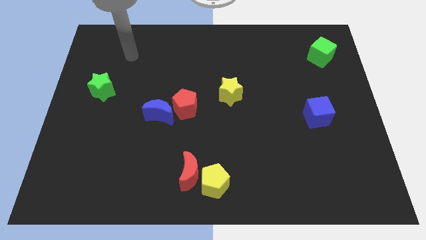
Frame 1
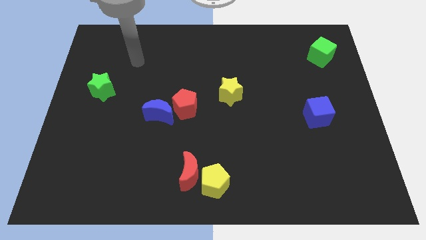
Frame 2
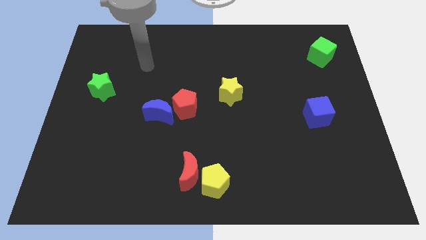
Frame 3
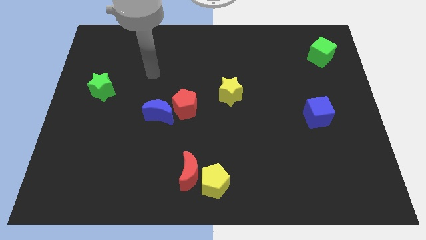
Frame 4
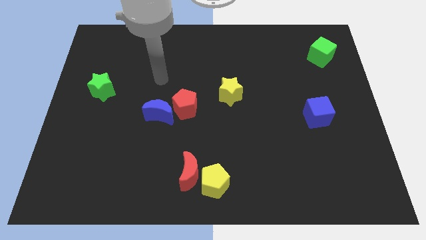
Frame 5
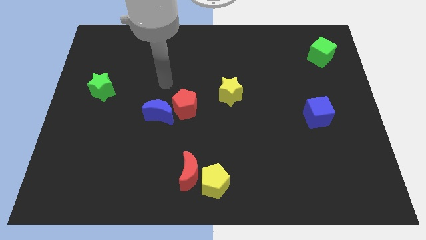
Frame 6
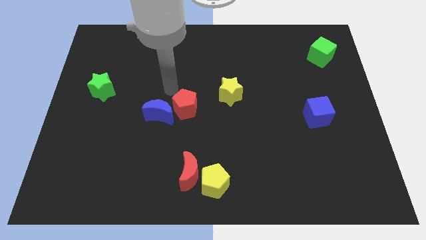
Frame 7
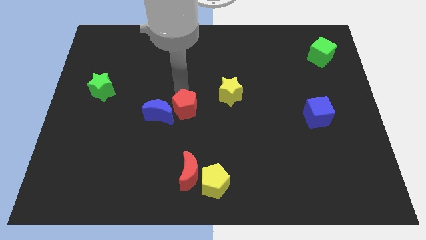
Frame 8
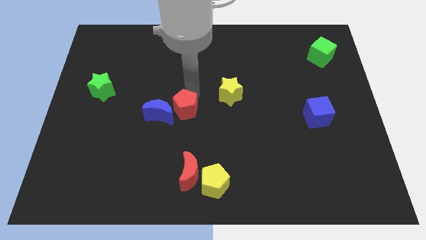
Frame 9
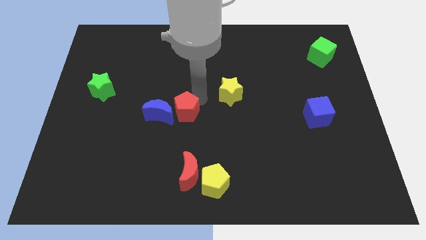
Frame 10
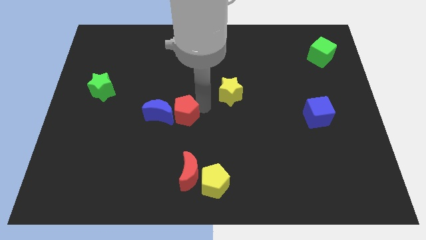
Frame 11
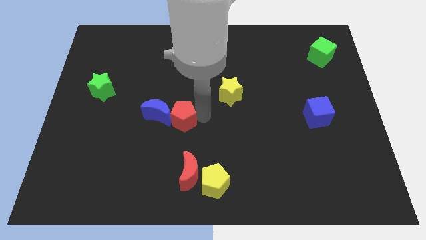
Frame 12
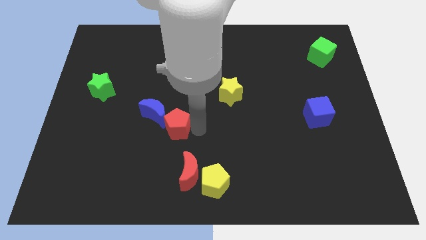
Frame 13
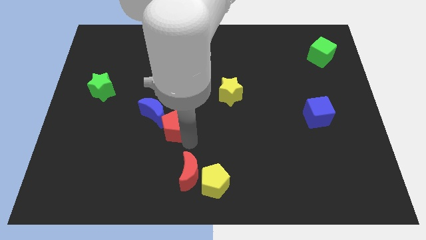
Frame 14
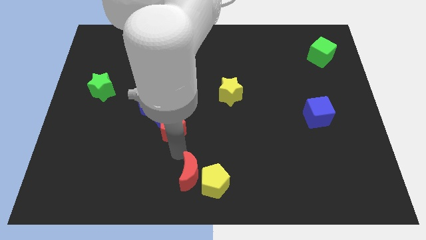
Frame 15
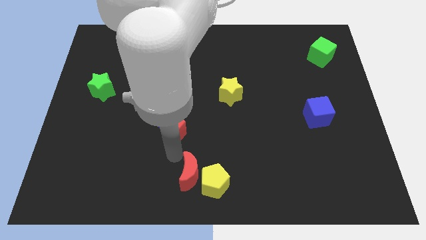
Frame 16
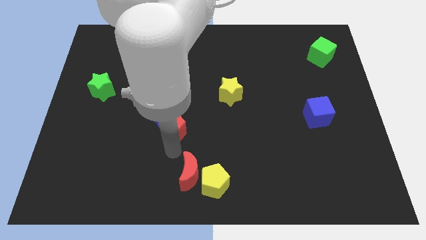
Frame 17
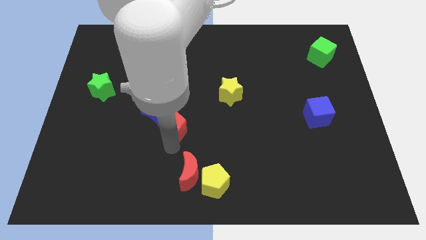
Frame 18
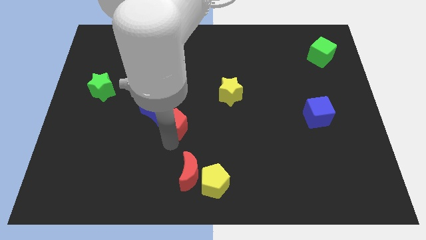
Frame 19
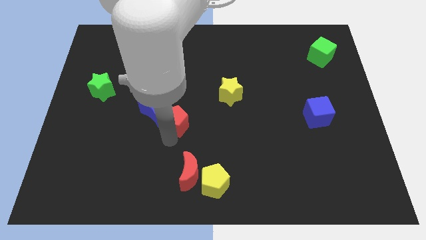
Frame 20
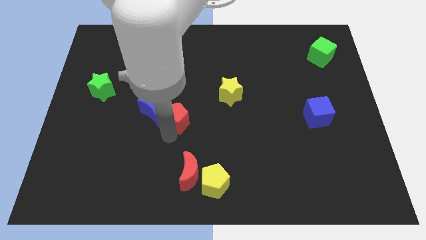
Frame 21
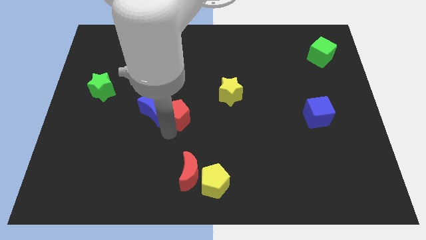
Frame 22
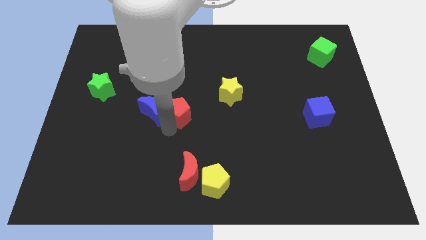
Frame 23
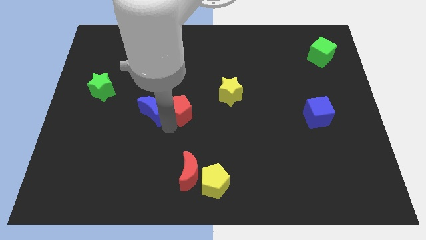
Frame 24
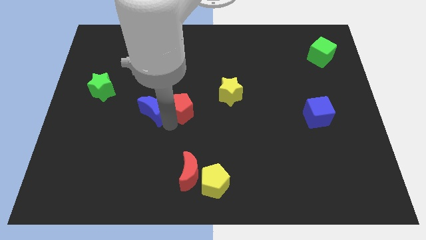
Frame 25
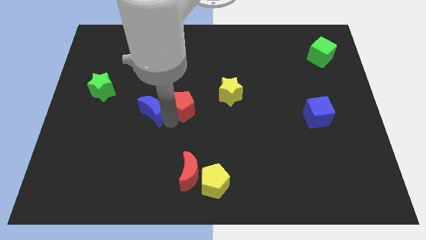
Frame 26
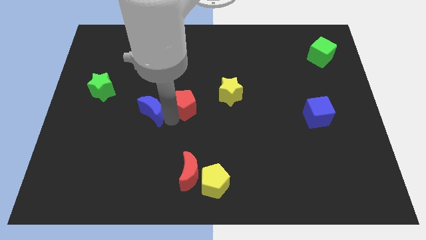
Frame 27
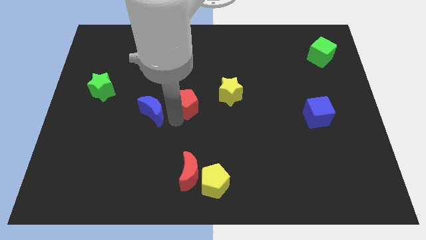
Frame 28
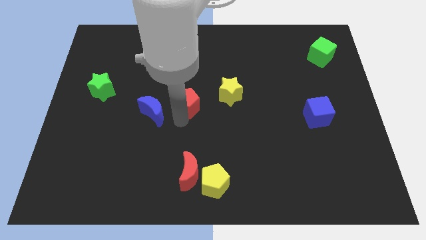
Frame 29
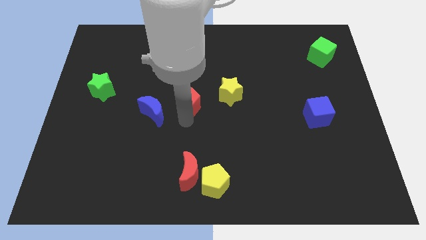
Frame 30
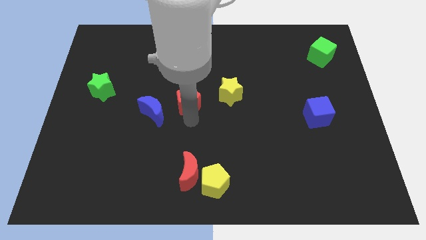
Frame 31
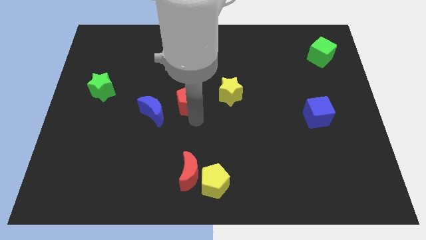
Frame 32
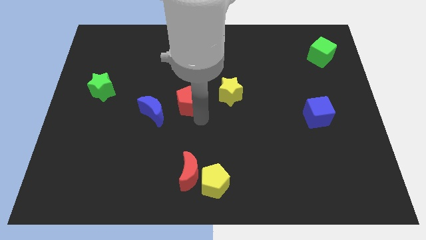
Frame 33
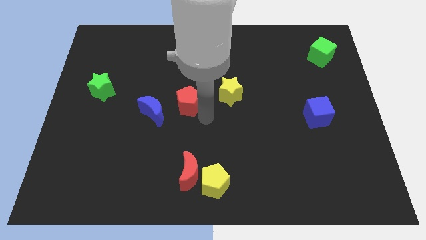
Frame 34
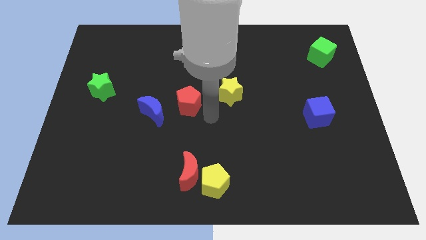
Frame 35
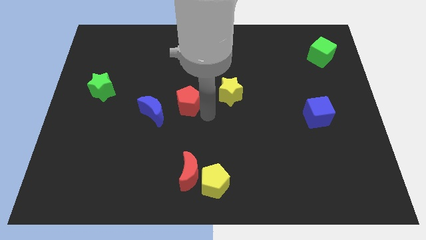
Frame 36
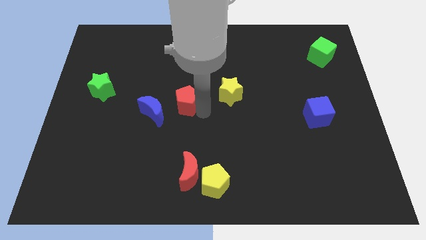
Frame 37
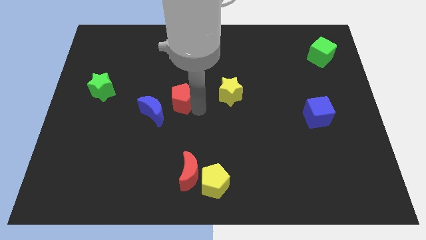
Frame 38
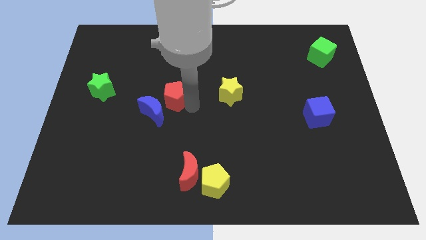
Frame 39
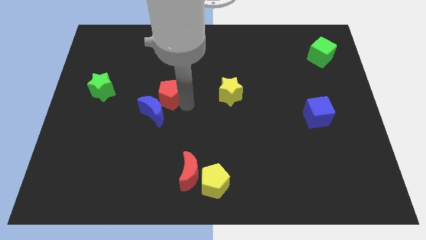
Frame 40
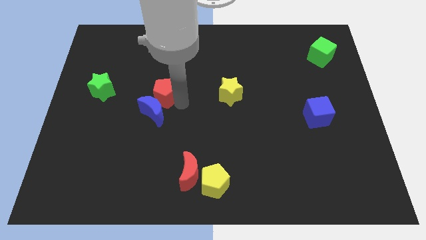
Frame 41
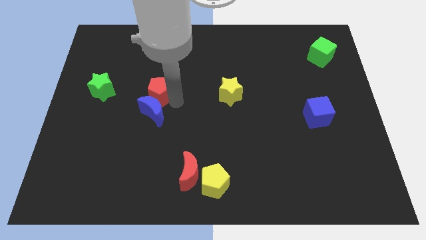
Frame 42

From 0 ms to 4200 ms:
slightly slide the red pentagon up and to the left diagonally

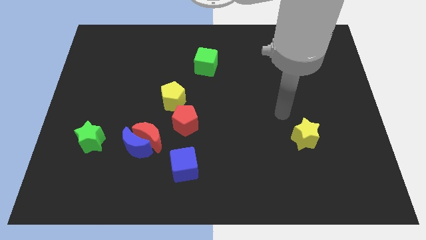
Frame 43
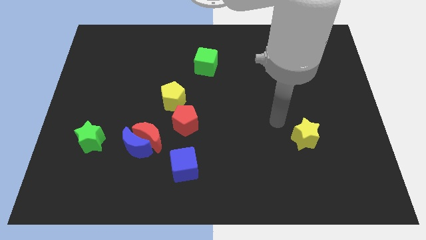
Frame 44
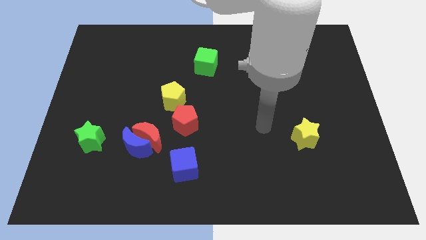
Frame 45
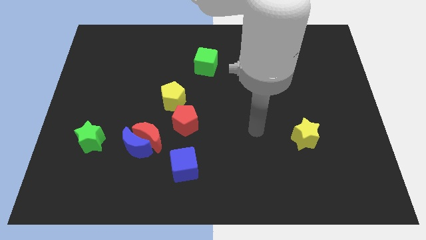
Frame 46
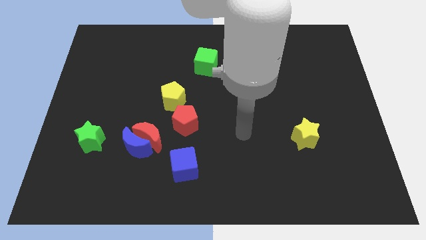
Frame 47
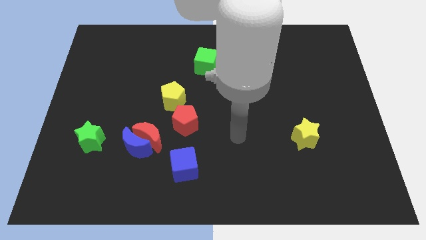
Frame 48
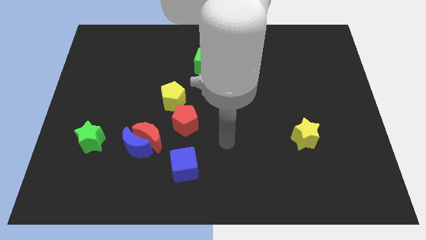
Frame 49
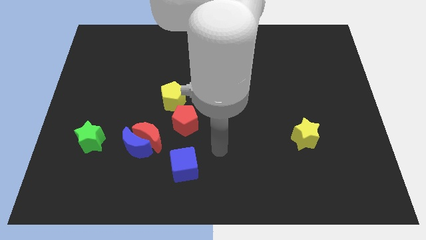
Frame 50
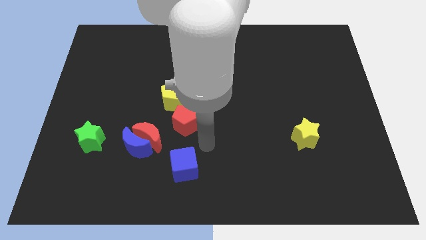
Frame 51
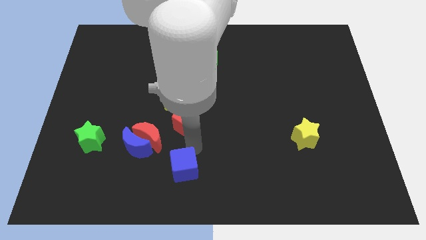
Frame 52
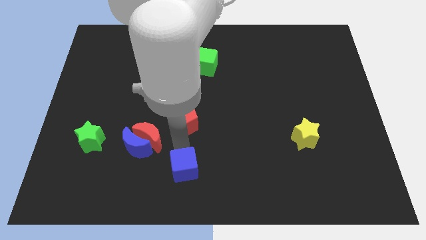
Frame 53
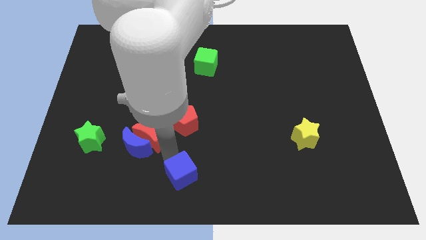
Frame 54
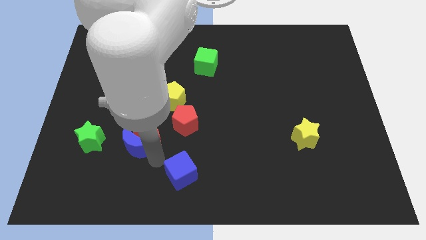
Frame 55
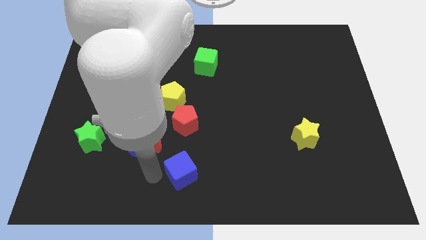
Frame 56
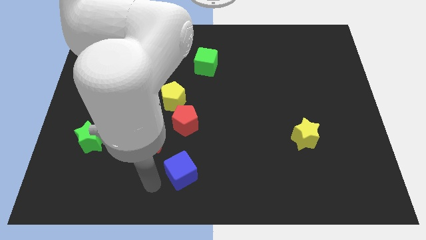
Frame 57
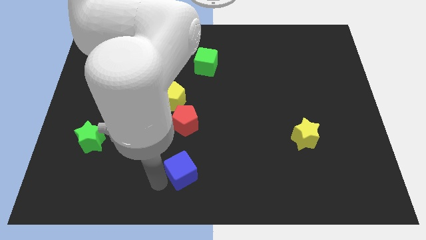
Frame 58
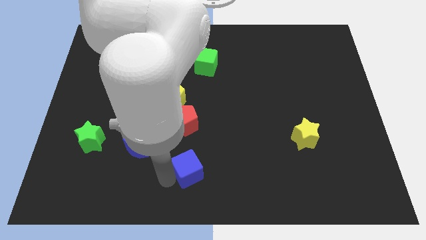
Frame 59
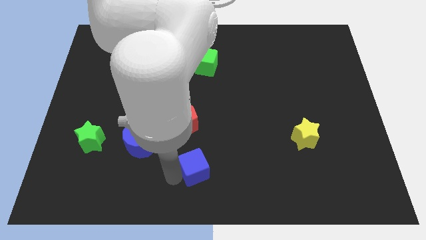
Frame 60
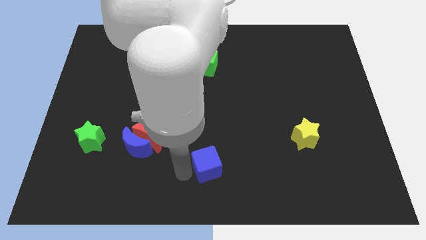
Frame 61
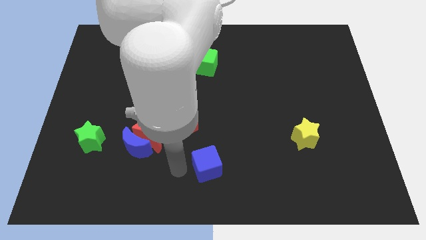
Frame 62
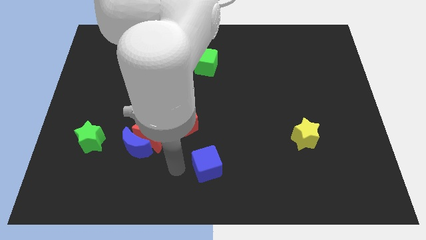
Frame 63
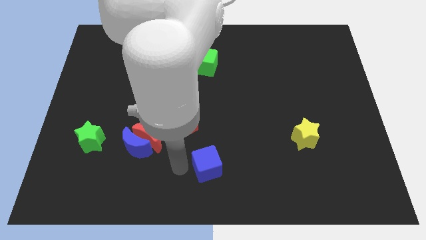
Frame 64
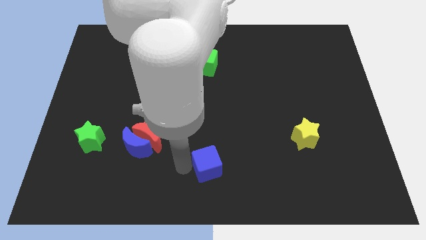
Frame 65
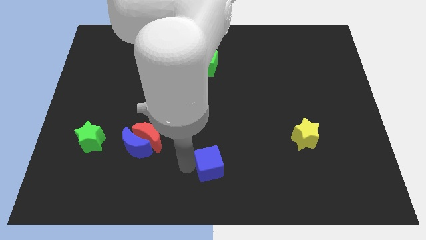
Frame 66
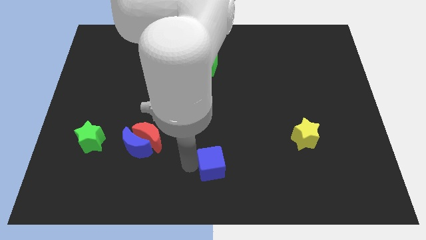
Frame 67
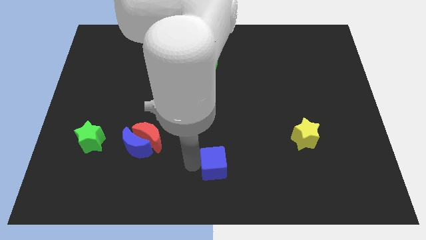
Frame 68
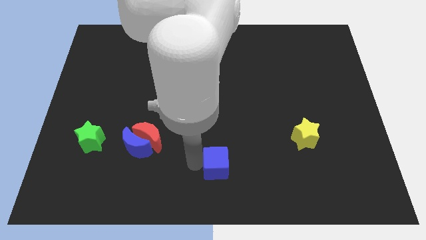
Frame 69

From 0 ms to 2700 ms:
slightly push the blue cube right

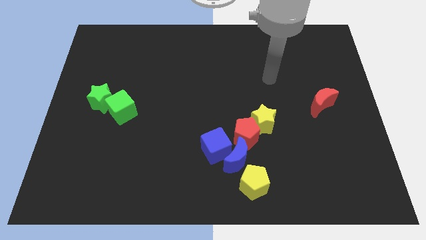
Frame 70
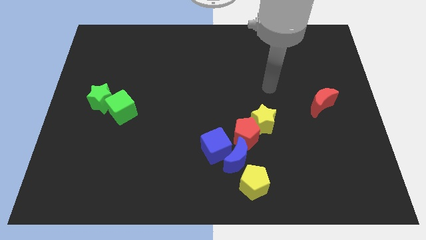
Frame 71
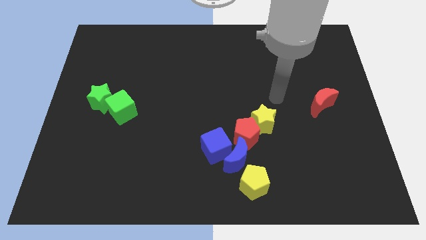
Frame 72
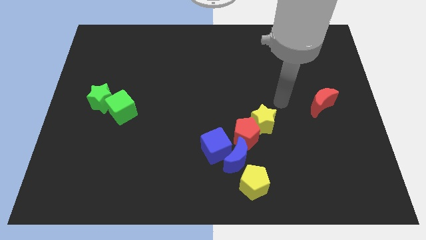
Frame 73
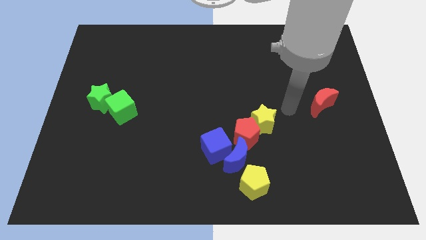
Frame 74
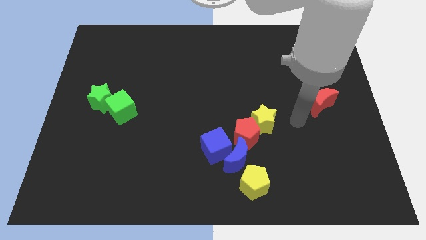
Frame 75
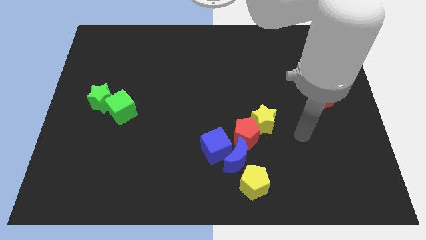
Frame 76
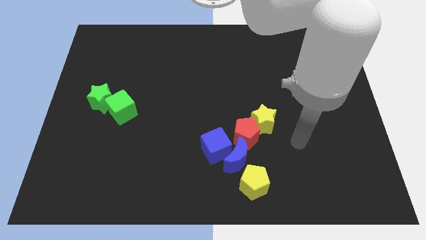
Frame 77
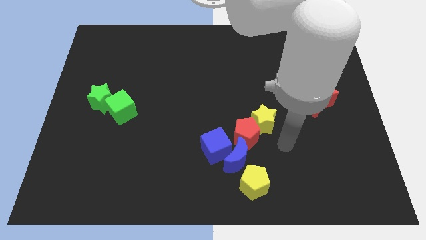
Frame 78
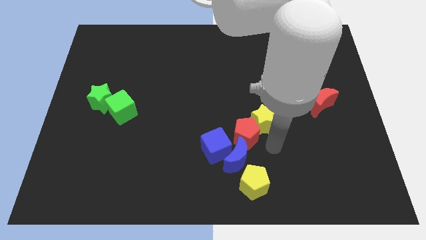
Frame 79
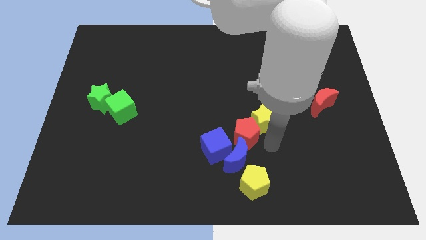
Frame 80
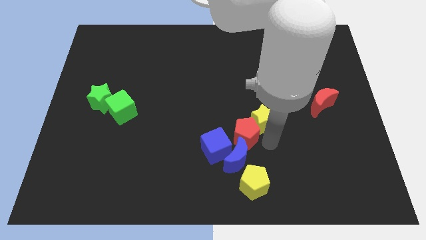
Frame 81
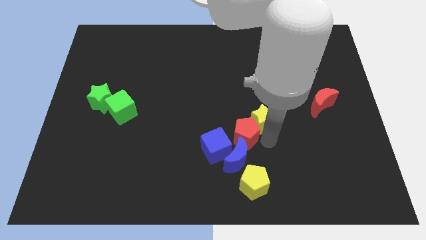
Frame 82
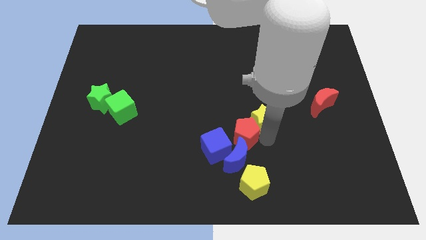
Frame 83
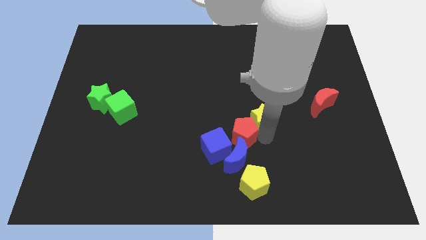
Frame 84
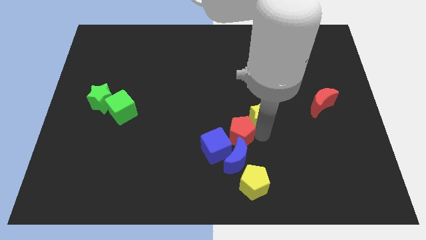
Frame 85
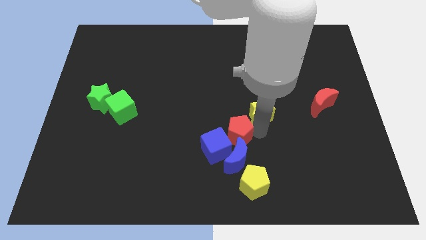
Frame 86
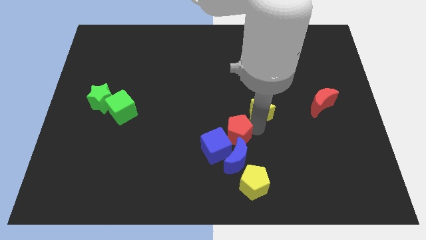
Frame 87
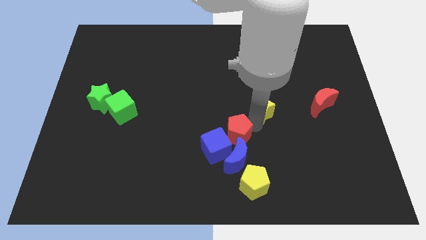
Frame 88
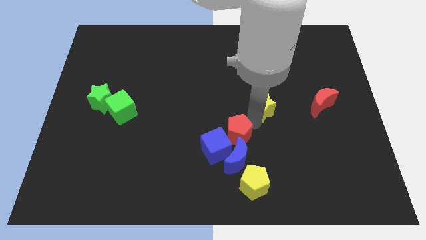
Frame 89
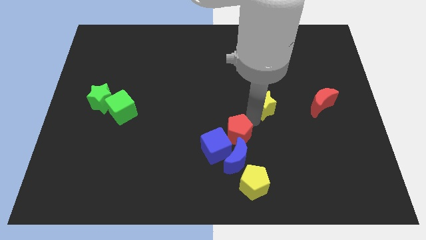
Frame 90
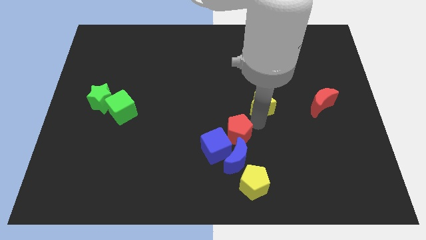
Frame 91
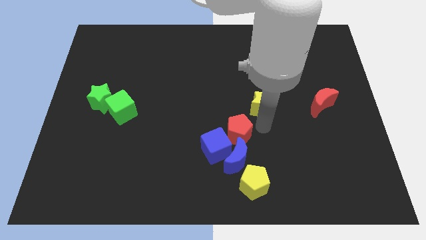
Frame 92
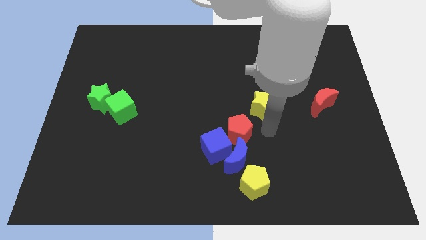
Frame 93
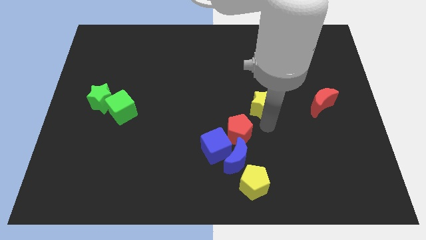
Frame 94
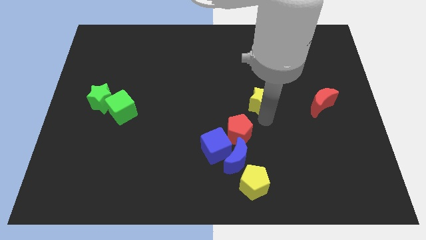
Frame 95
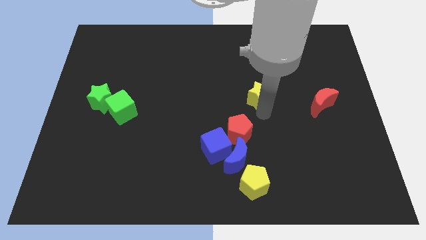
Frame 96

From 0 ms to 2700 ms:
slightly push the yellow star up
